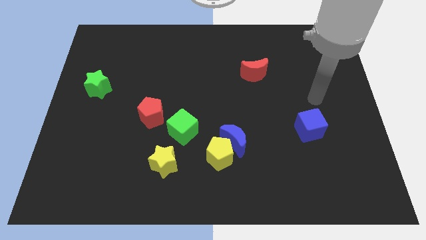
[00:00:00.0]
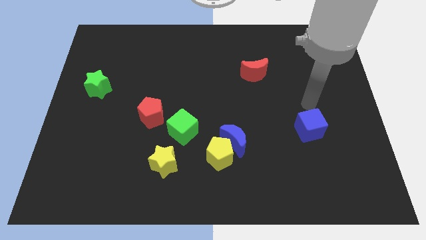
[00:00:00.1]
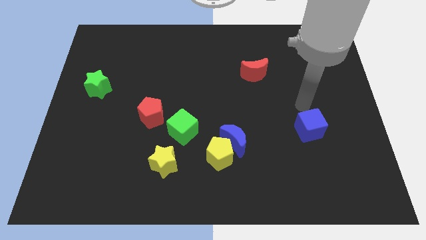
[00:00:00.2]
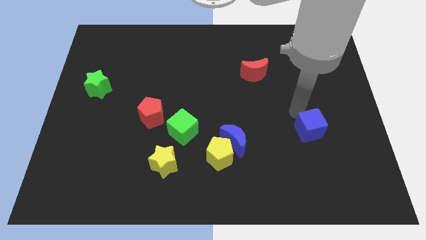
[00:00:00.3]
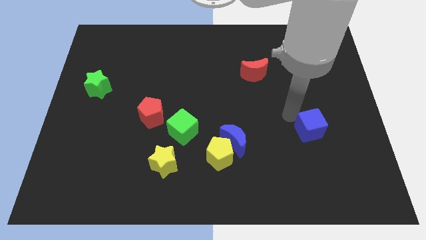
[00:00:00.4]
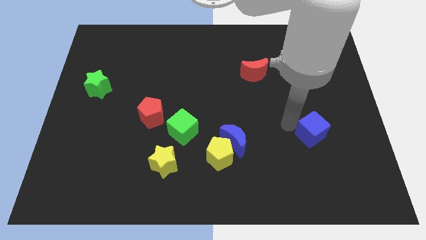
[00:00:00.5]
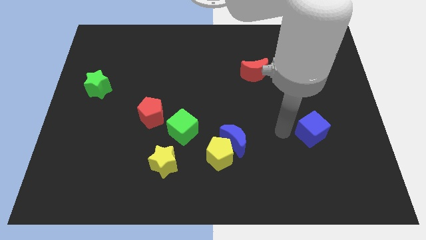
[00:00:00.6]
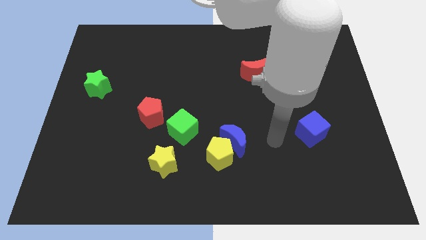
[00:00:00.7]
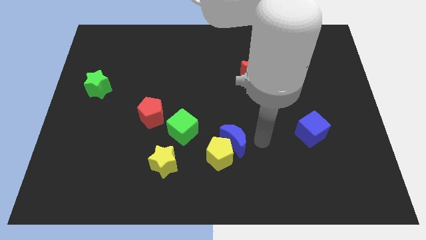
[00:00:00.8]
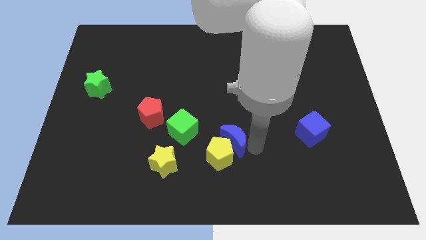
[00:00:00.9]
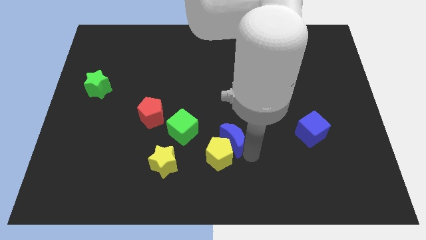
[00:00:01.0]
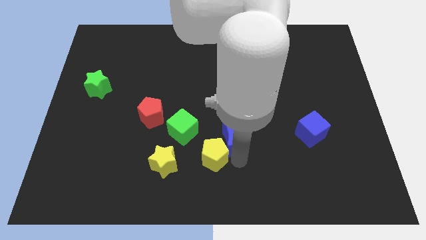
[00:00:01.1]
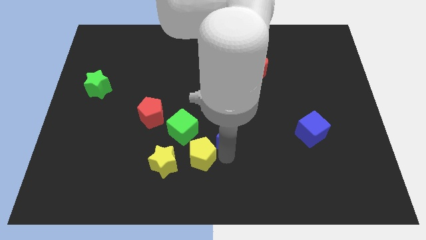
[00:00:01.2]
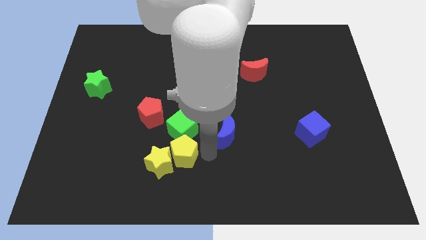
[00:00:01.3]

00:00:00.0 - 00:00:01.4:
pull the blue moon apart from the yellow pentagon

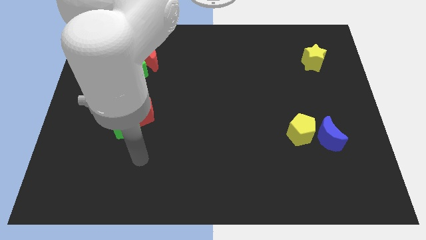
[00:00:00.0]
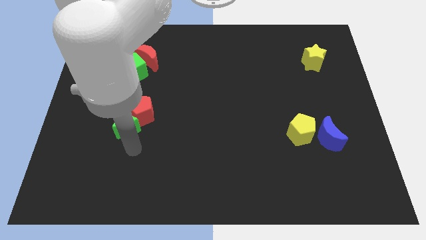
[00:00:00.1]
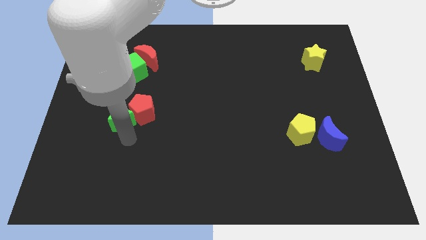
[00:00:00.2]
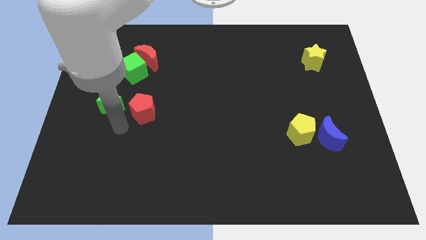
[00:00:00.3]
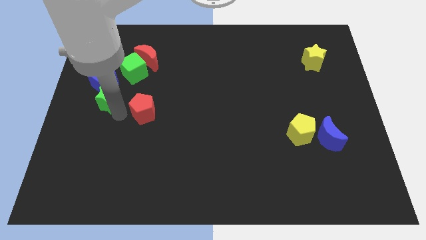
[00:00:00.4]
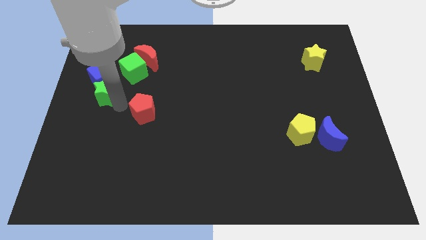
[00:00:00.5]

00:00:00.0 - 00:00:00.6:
move the red pentagon away from the green star

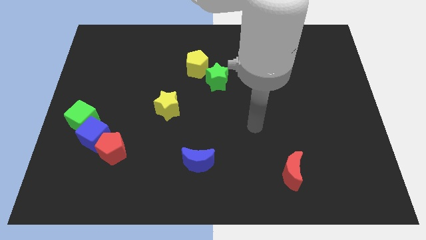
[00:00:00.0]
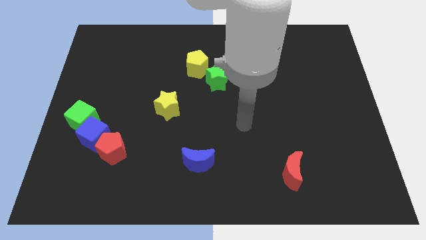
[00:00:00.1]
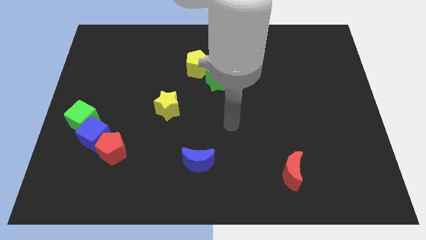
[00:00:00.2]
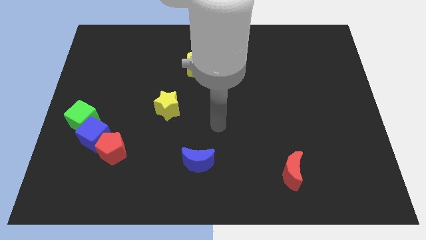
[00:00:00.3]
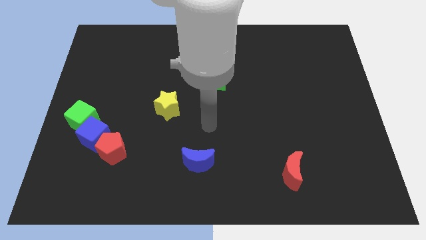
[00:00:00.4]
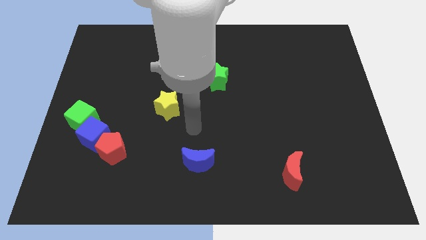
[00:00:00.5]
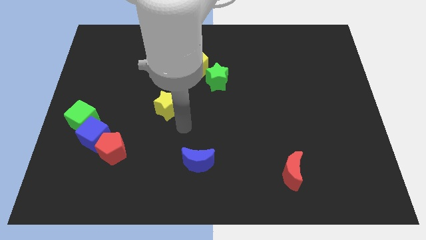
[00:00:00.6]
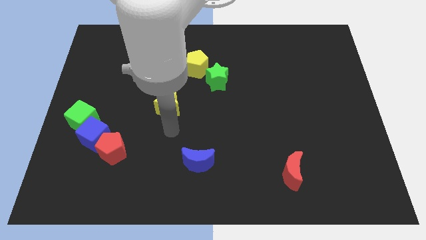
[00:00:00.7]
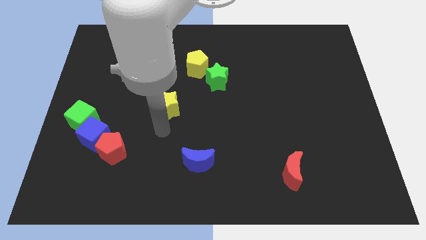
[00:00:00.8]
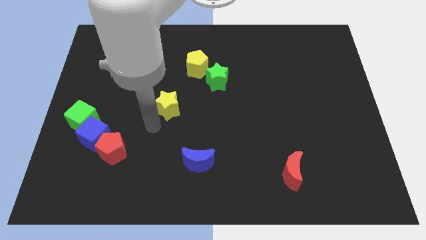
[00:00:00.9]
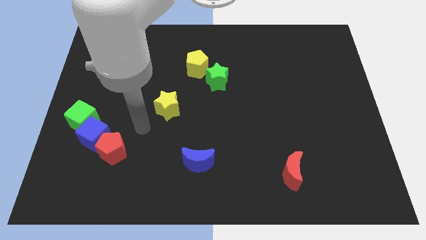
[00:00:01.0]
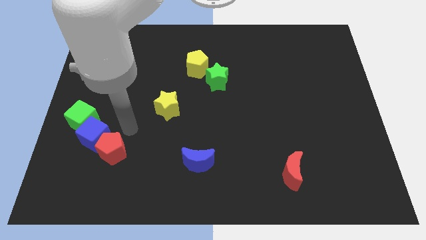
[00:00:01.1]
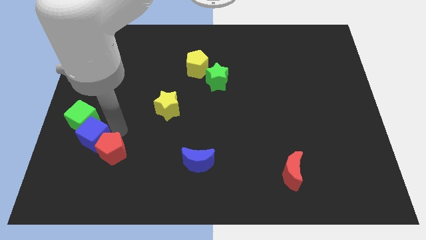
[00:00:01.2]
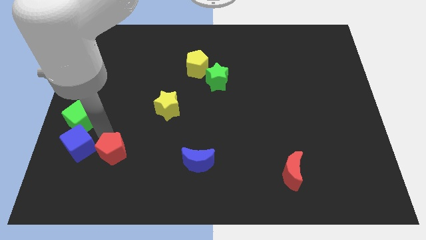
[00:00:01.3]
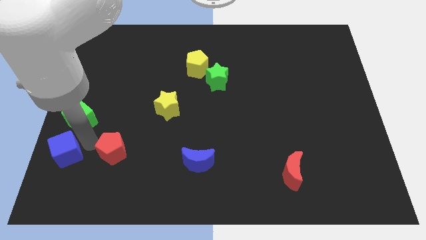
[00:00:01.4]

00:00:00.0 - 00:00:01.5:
pull the red pentagon apart from the blue cube

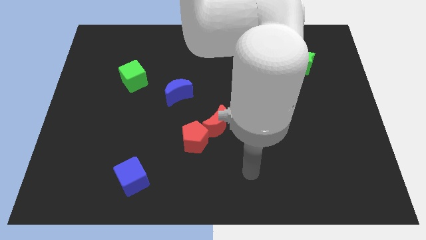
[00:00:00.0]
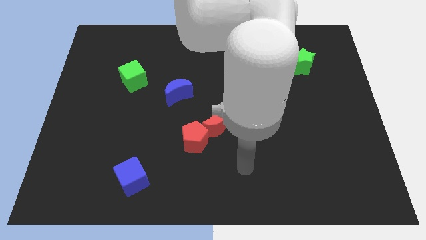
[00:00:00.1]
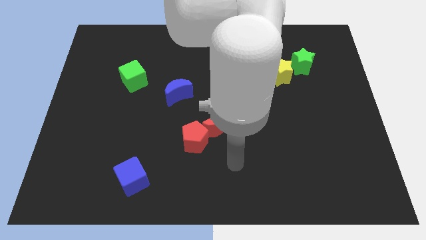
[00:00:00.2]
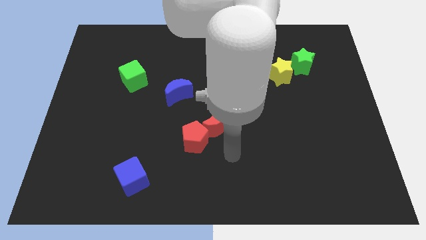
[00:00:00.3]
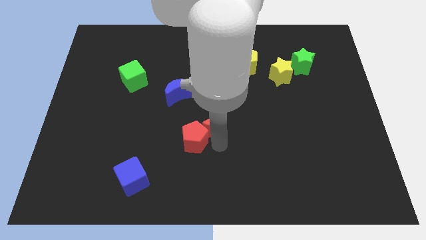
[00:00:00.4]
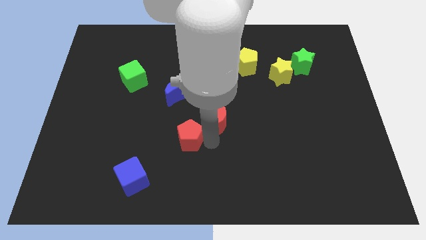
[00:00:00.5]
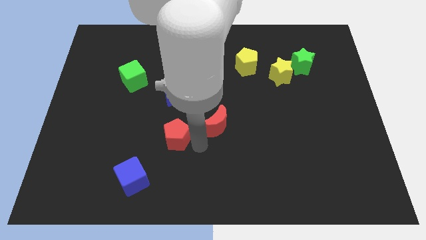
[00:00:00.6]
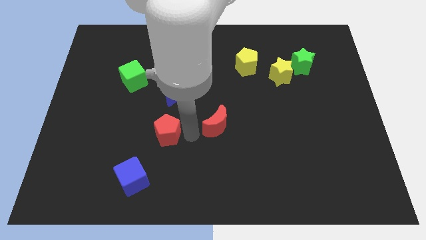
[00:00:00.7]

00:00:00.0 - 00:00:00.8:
separate the red moon from the red pentagon

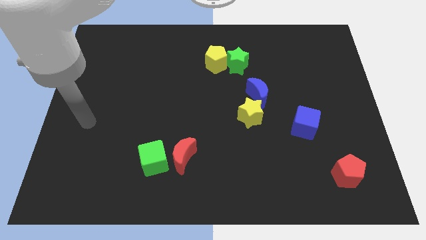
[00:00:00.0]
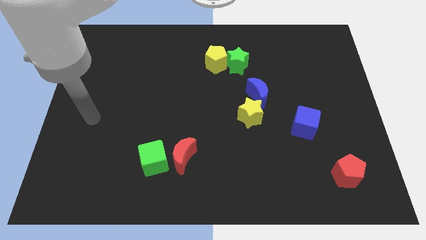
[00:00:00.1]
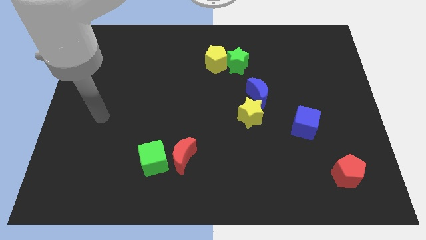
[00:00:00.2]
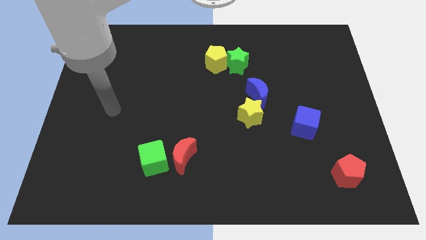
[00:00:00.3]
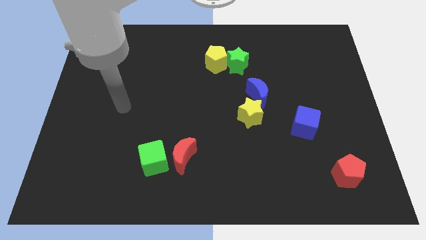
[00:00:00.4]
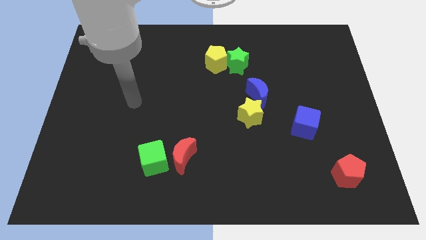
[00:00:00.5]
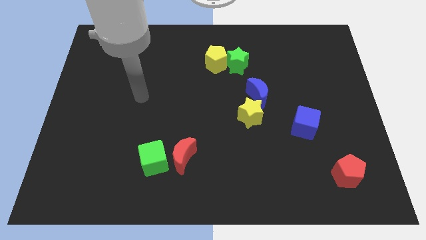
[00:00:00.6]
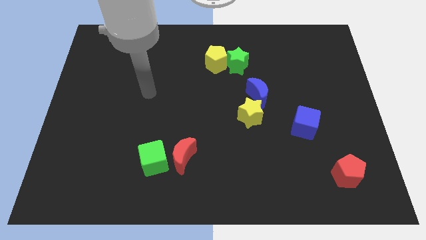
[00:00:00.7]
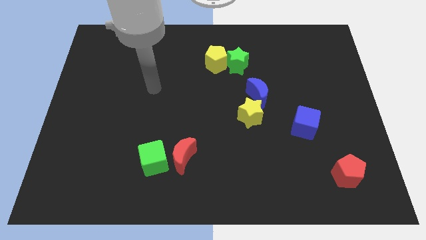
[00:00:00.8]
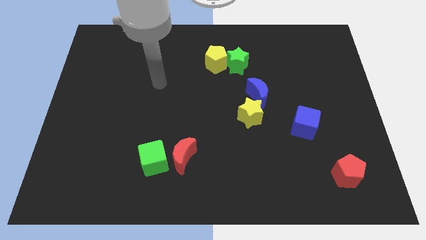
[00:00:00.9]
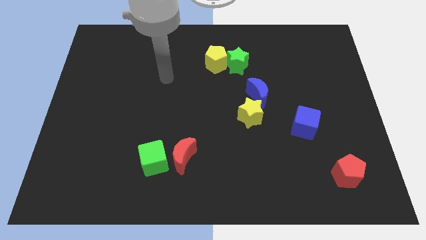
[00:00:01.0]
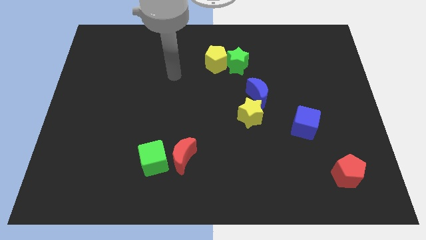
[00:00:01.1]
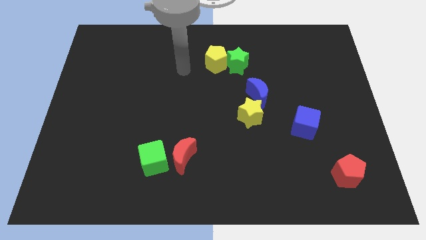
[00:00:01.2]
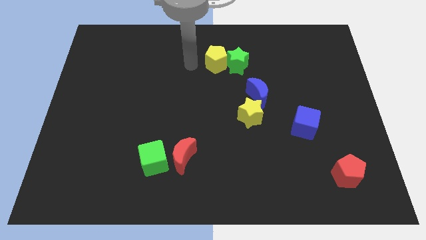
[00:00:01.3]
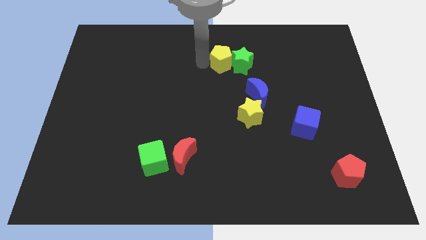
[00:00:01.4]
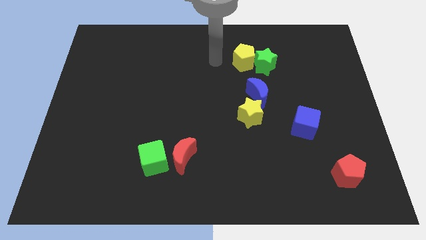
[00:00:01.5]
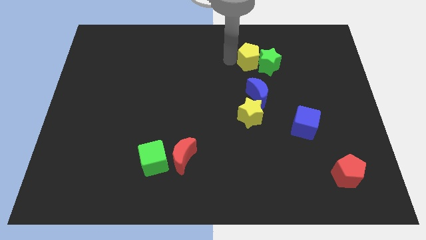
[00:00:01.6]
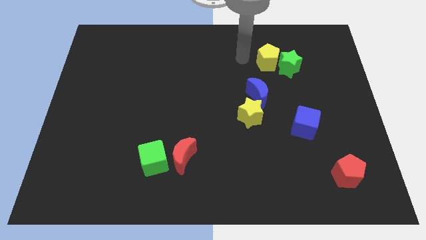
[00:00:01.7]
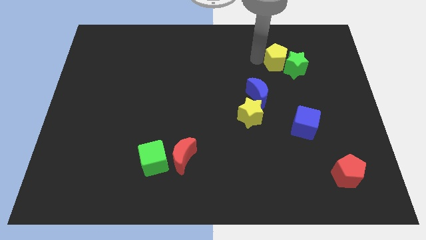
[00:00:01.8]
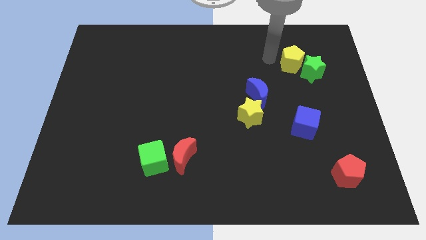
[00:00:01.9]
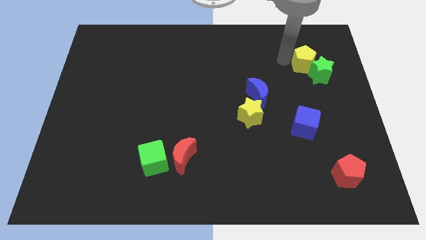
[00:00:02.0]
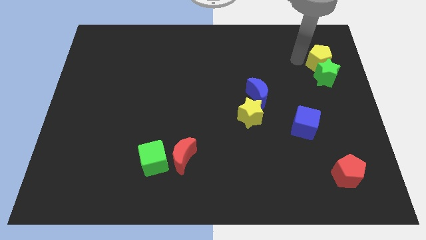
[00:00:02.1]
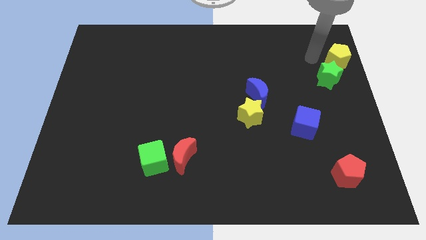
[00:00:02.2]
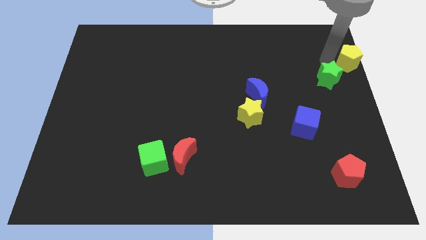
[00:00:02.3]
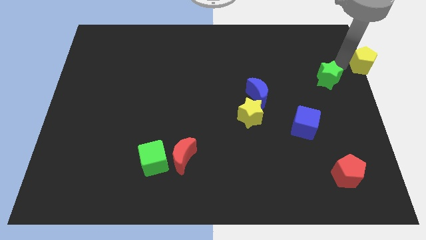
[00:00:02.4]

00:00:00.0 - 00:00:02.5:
move the green star away from the yellow pentagon

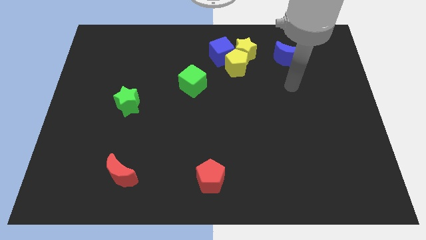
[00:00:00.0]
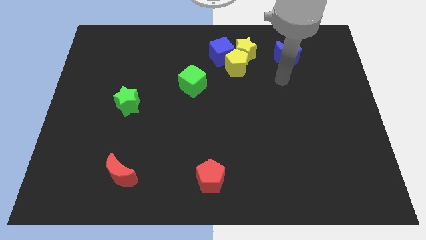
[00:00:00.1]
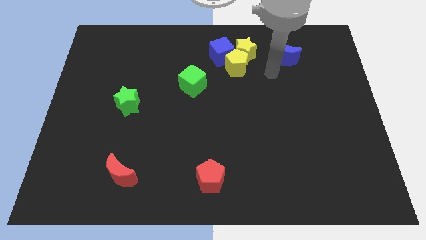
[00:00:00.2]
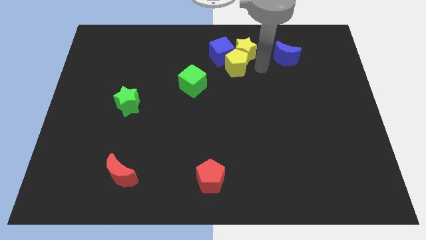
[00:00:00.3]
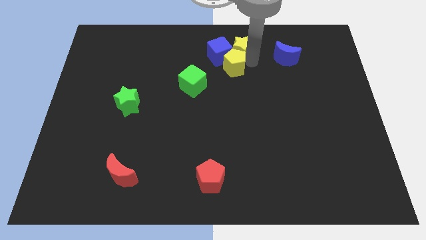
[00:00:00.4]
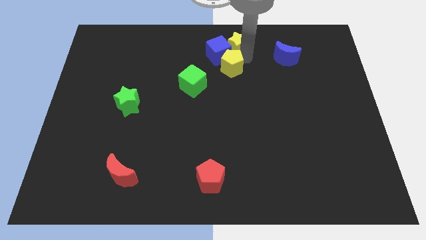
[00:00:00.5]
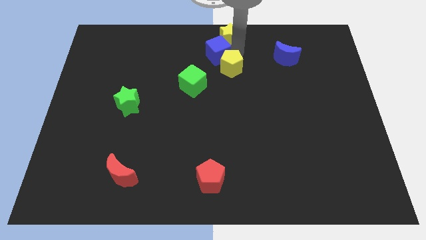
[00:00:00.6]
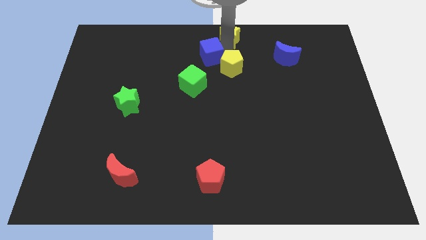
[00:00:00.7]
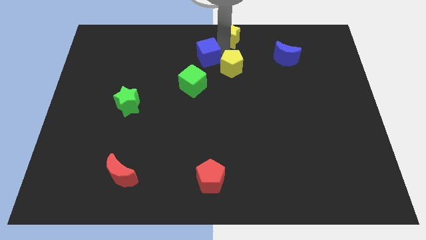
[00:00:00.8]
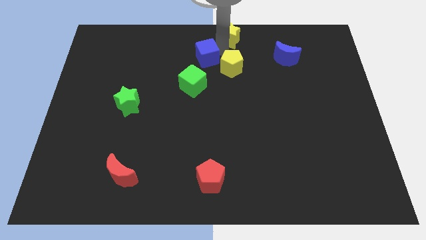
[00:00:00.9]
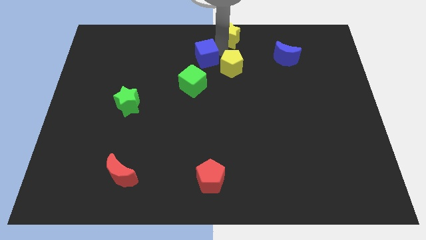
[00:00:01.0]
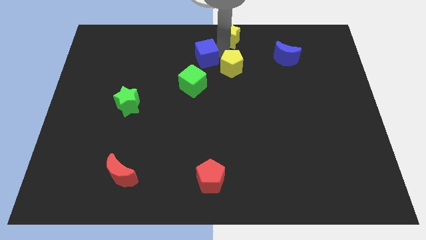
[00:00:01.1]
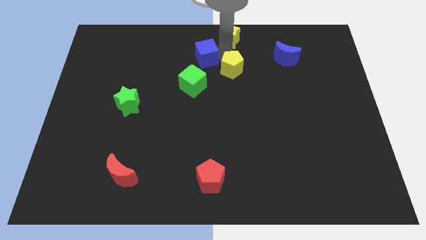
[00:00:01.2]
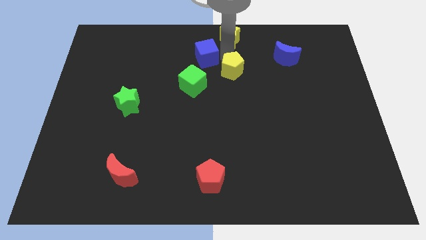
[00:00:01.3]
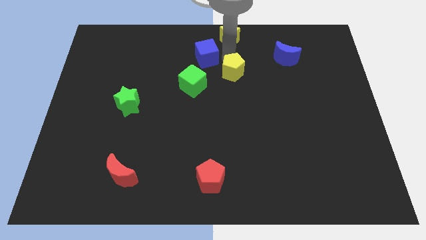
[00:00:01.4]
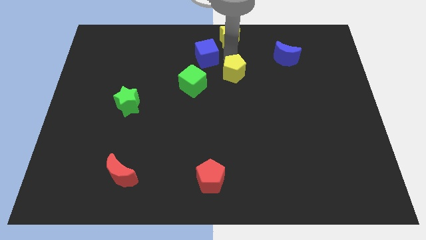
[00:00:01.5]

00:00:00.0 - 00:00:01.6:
separate the yellow pentagon from the yellow star and blue cube

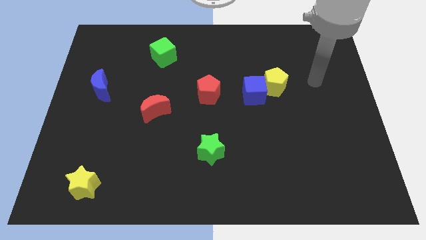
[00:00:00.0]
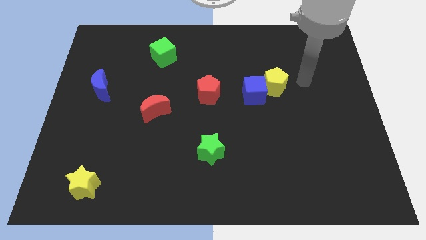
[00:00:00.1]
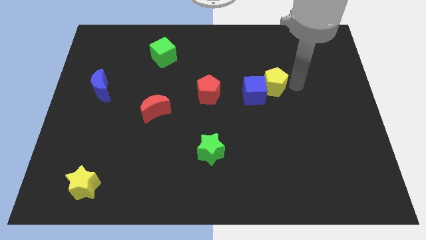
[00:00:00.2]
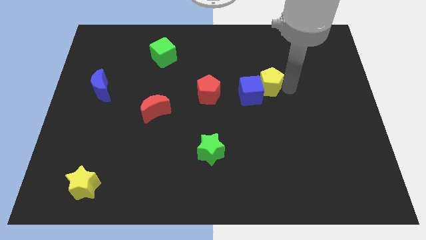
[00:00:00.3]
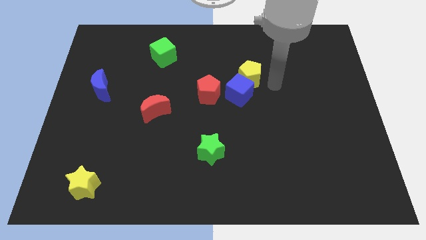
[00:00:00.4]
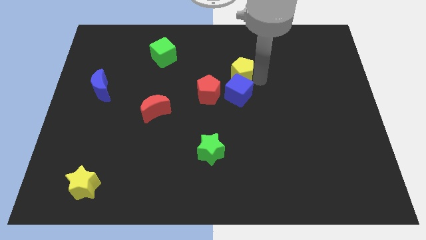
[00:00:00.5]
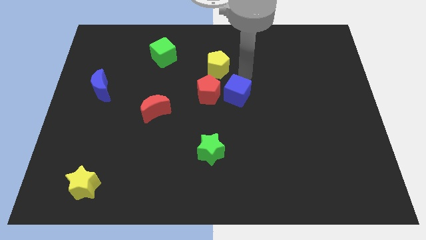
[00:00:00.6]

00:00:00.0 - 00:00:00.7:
move the blue cube away from the yellow pentagon

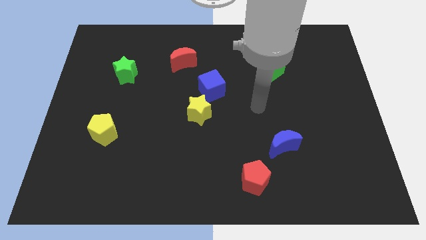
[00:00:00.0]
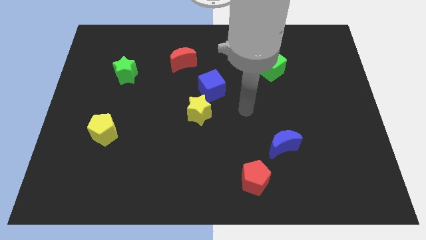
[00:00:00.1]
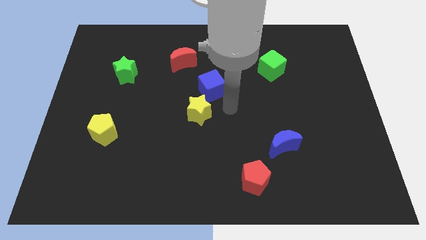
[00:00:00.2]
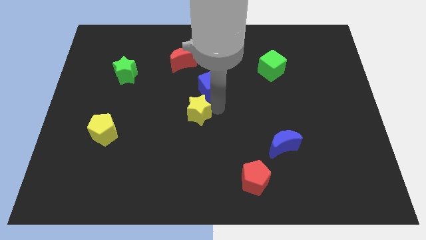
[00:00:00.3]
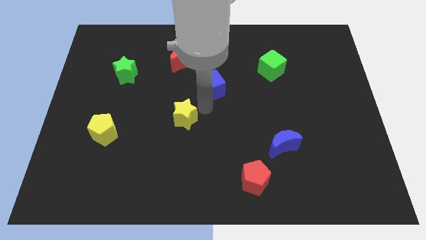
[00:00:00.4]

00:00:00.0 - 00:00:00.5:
separate the blue cube from the yellow star
